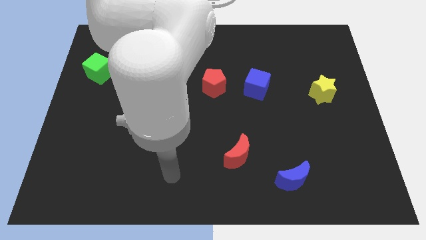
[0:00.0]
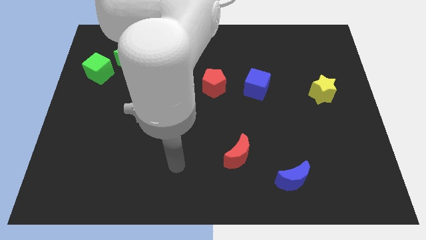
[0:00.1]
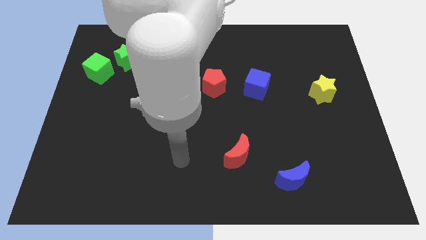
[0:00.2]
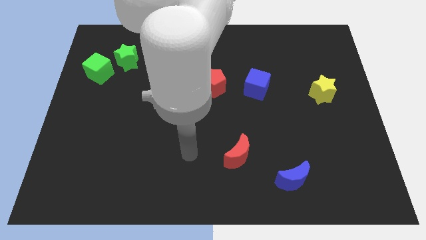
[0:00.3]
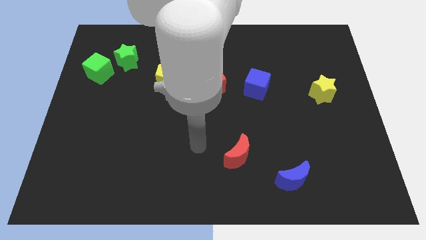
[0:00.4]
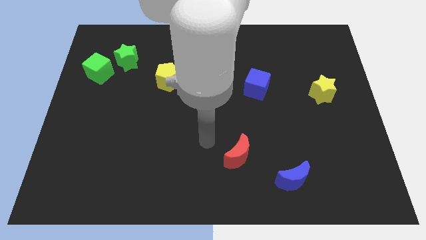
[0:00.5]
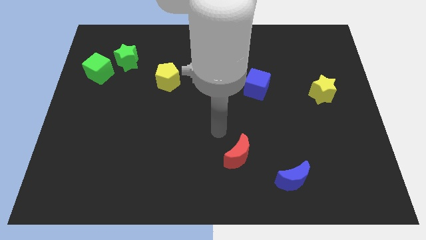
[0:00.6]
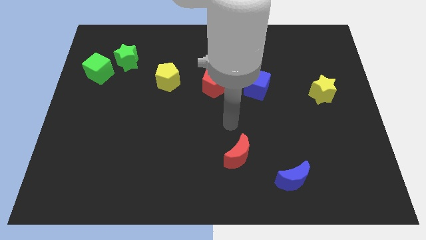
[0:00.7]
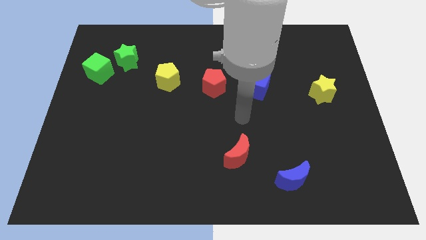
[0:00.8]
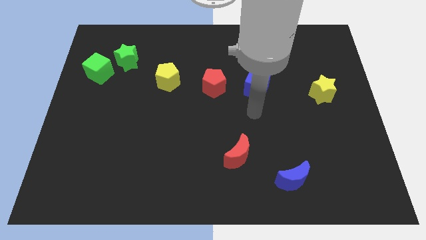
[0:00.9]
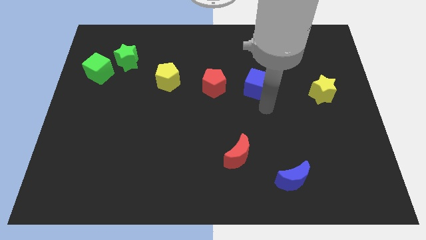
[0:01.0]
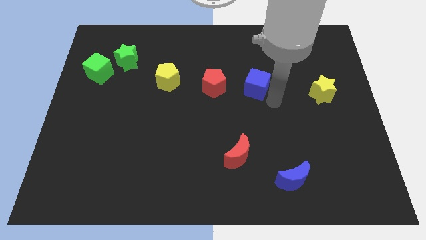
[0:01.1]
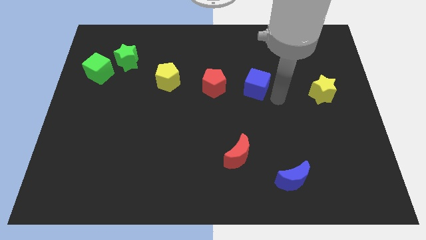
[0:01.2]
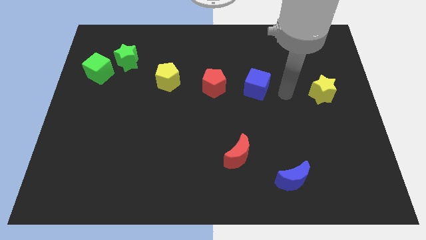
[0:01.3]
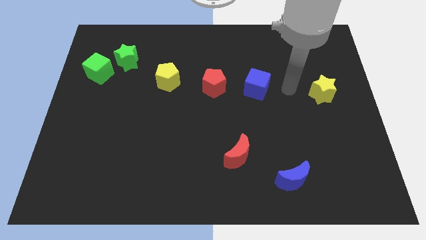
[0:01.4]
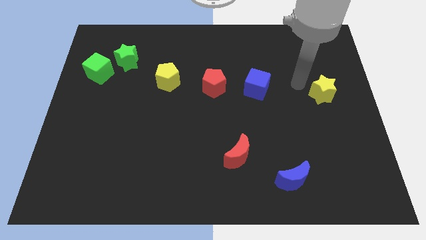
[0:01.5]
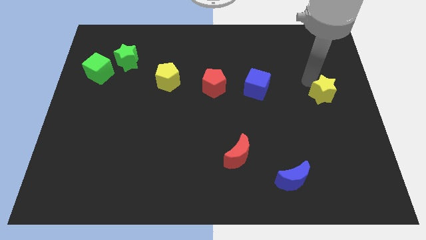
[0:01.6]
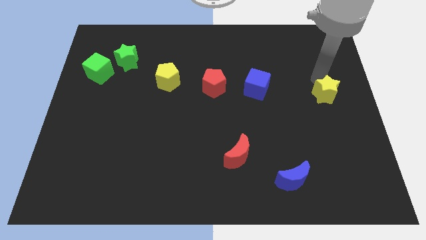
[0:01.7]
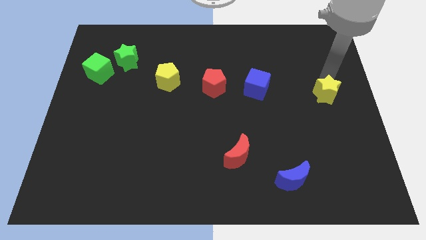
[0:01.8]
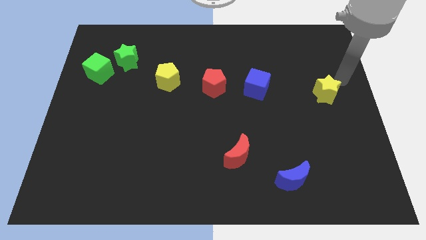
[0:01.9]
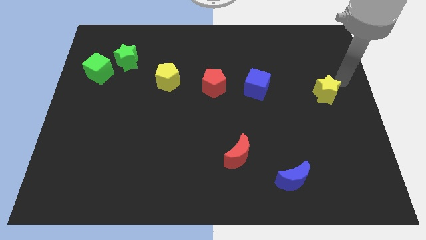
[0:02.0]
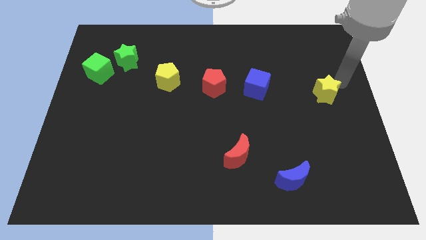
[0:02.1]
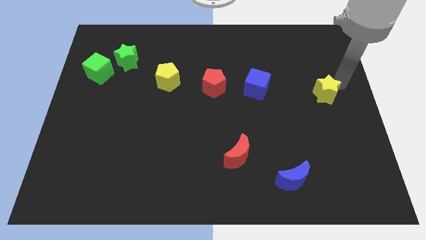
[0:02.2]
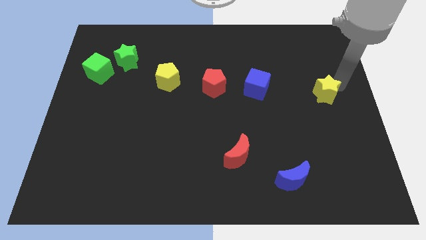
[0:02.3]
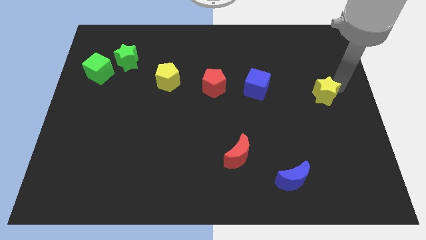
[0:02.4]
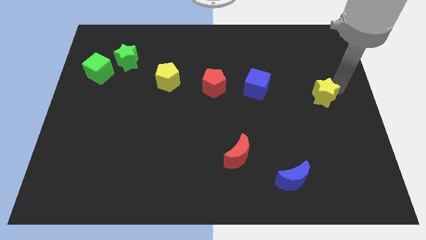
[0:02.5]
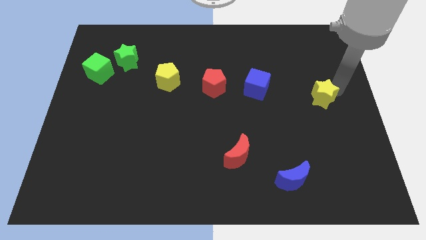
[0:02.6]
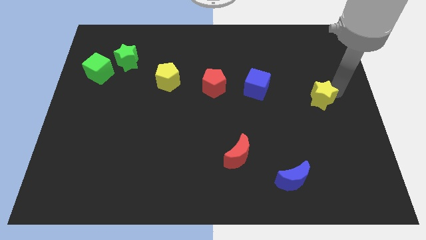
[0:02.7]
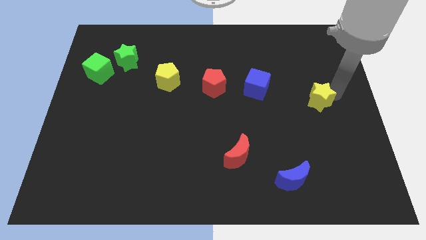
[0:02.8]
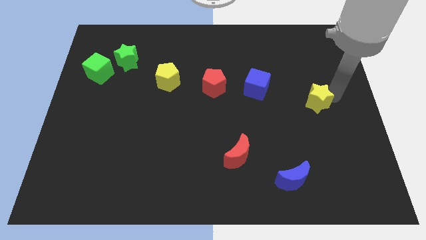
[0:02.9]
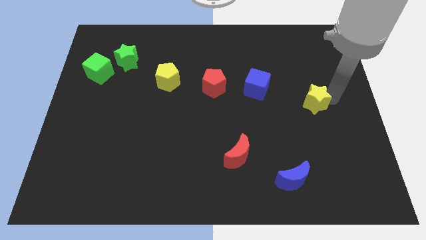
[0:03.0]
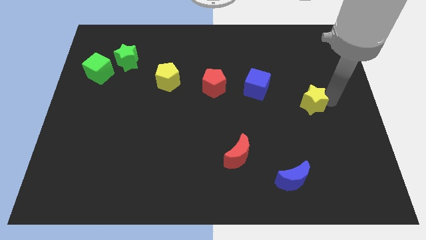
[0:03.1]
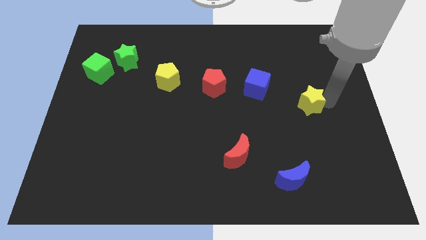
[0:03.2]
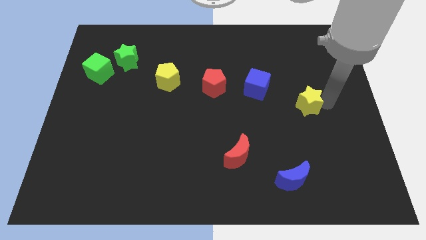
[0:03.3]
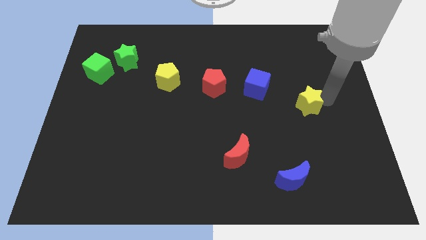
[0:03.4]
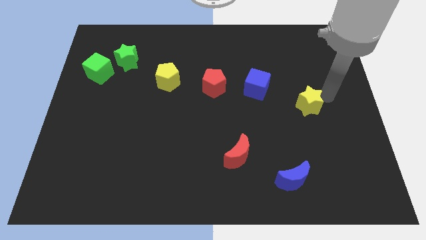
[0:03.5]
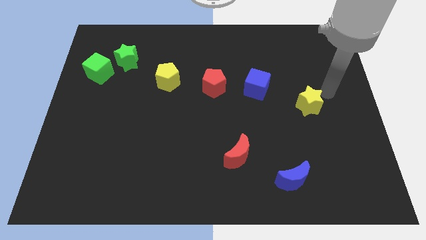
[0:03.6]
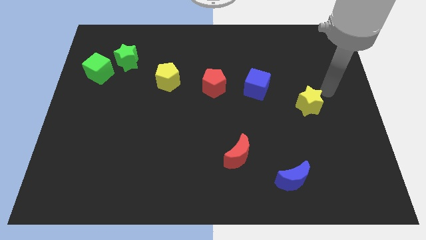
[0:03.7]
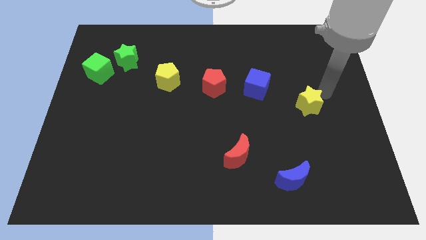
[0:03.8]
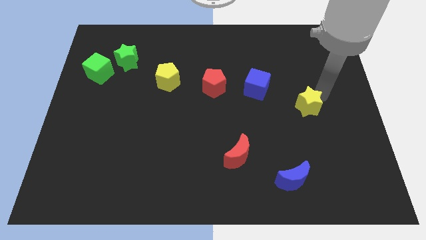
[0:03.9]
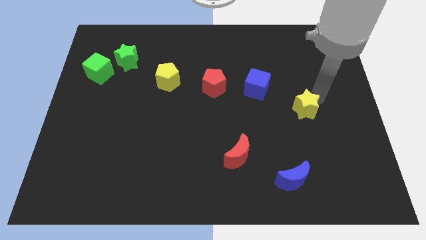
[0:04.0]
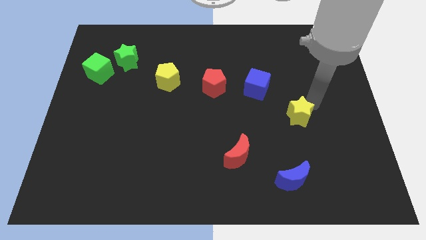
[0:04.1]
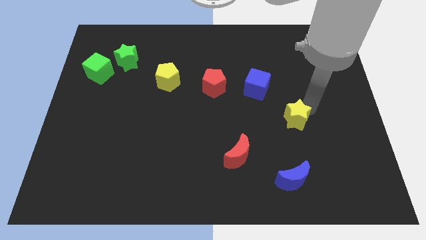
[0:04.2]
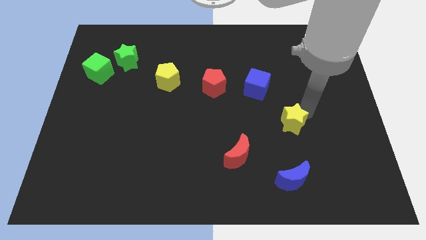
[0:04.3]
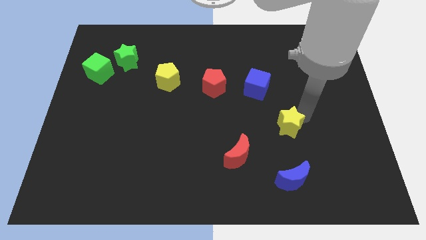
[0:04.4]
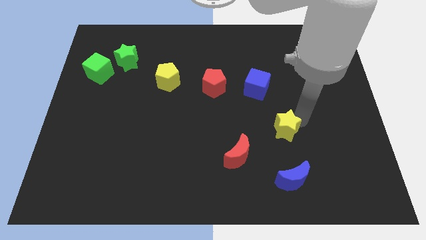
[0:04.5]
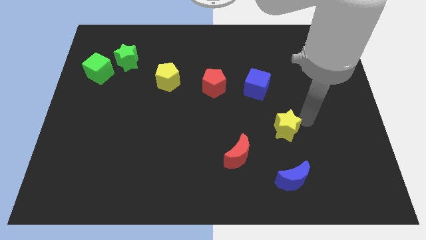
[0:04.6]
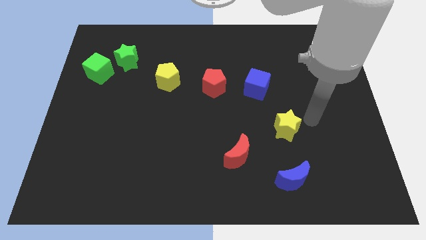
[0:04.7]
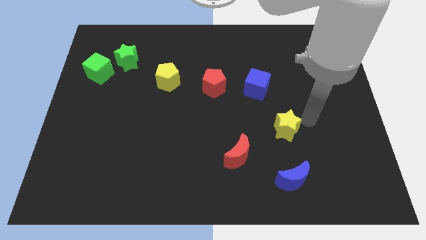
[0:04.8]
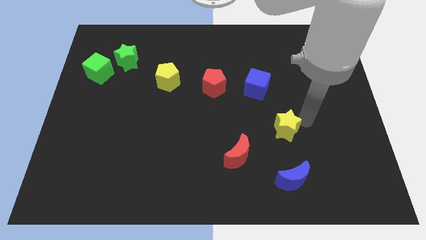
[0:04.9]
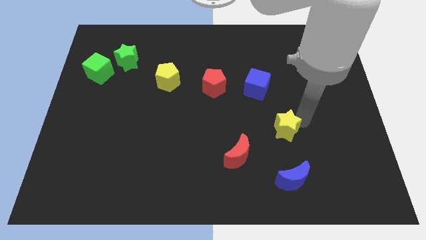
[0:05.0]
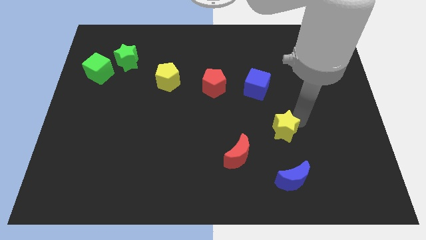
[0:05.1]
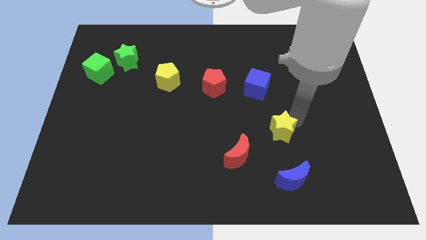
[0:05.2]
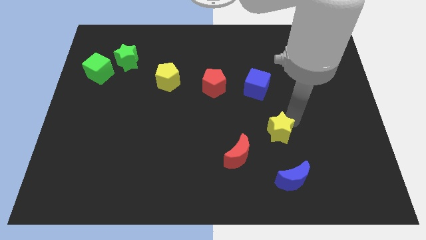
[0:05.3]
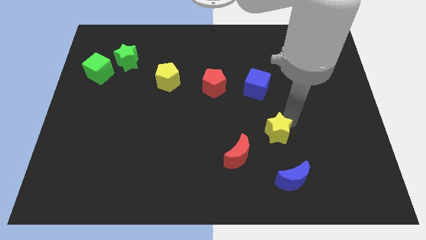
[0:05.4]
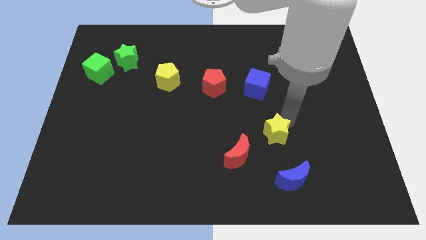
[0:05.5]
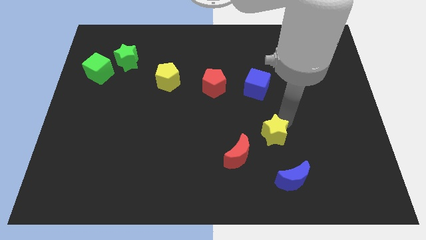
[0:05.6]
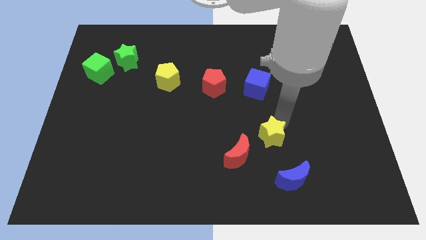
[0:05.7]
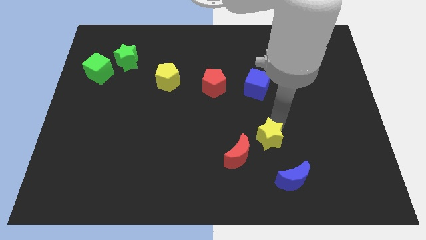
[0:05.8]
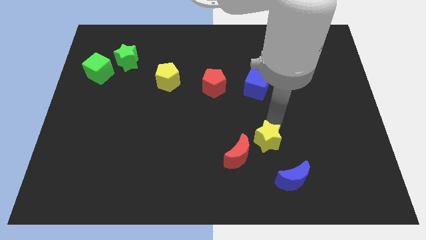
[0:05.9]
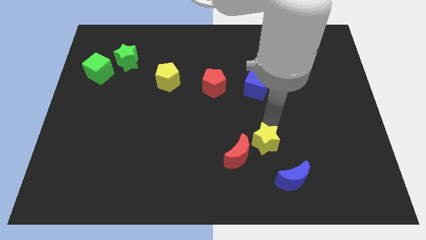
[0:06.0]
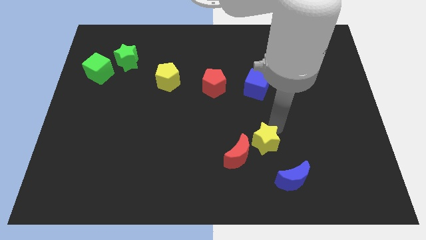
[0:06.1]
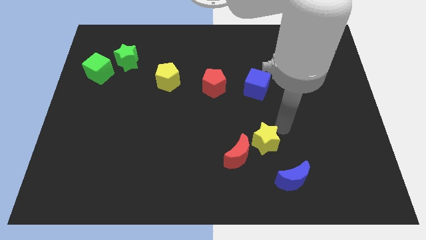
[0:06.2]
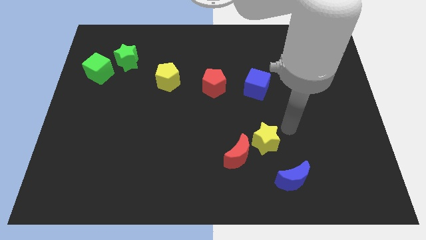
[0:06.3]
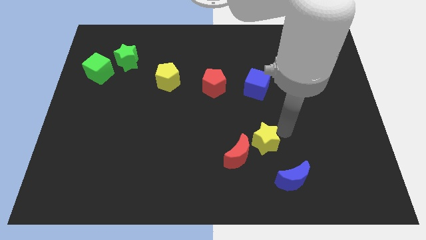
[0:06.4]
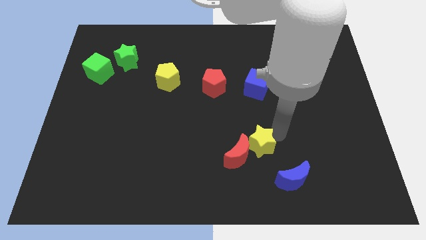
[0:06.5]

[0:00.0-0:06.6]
put the yellow star close to the red moon

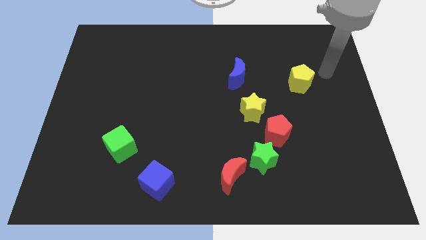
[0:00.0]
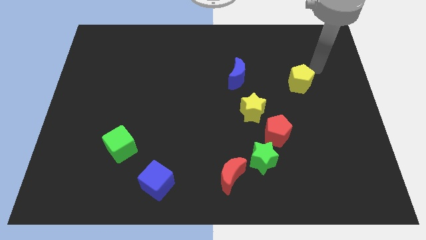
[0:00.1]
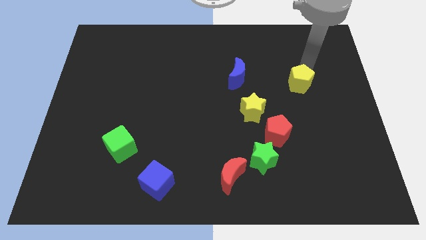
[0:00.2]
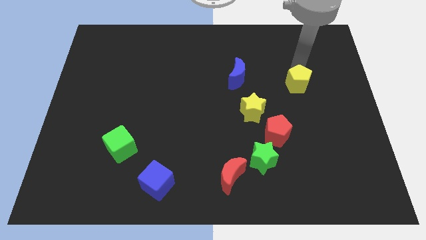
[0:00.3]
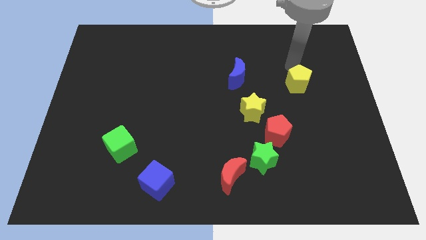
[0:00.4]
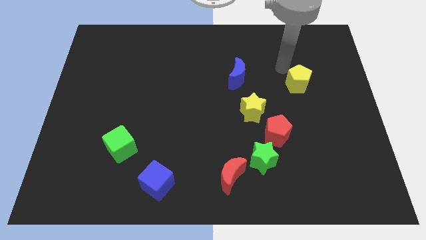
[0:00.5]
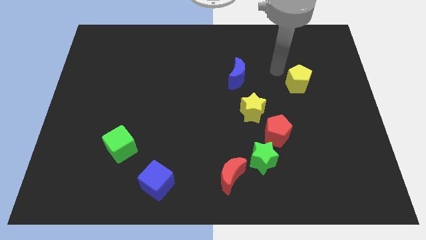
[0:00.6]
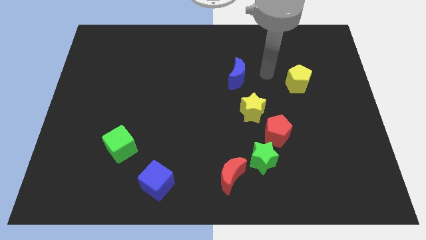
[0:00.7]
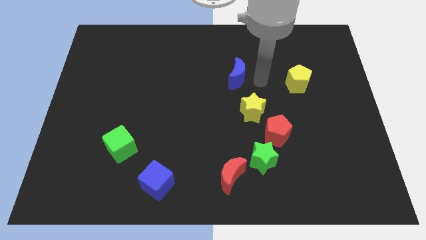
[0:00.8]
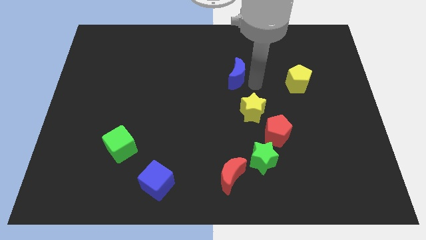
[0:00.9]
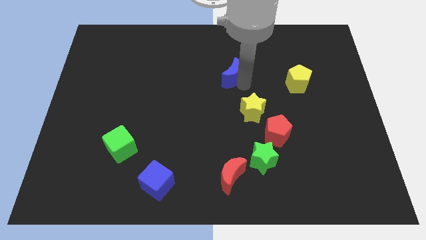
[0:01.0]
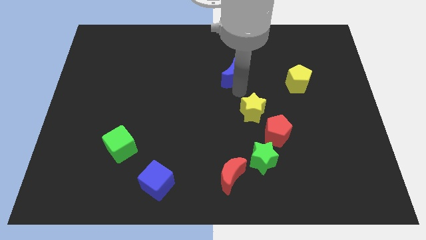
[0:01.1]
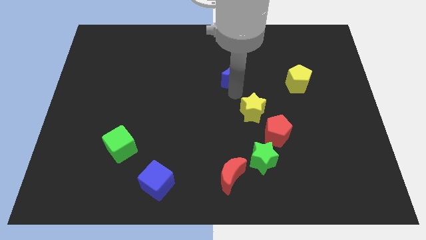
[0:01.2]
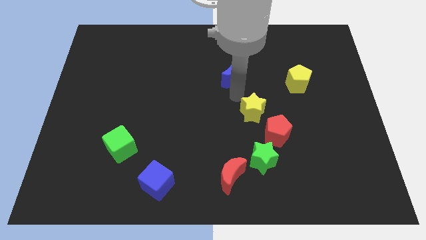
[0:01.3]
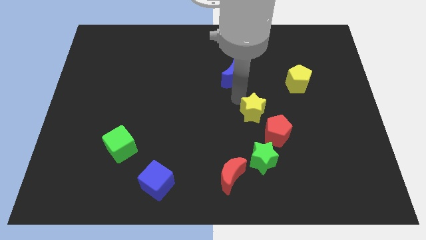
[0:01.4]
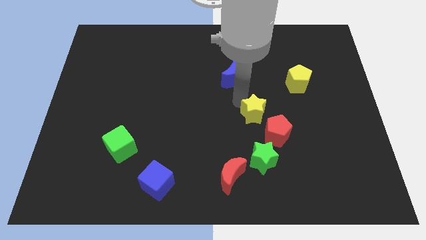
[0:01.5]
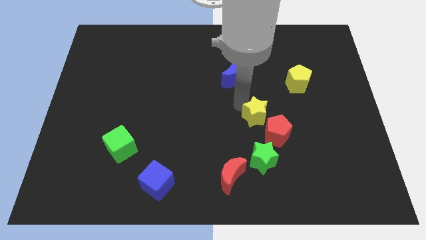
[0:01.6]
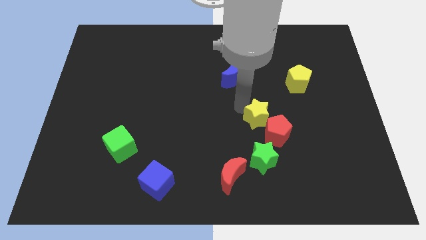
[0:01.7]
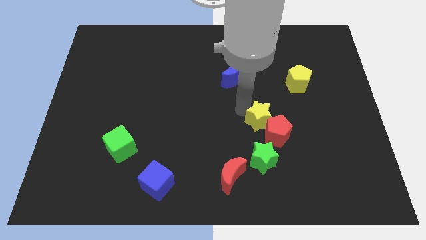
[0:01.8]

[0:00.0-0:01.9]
push the yellow star to the red pentagon

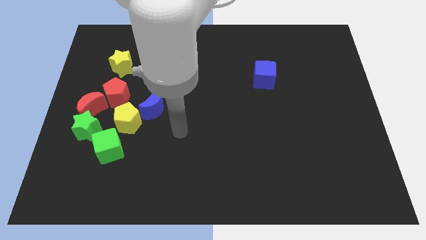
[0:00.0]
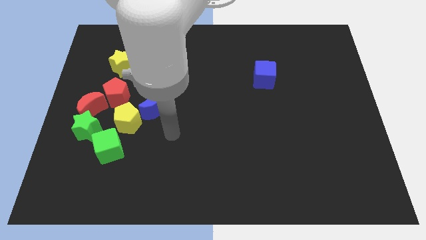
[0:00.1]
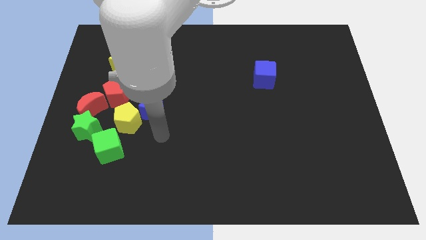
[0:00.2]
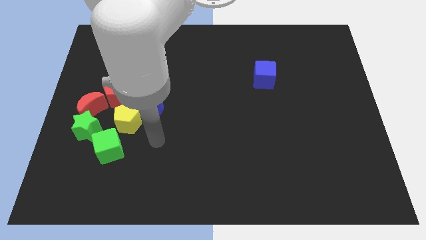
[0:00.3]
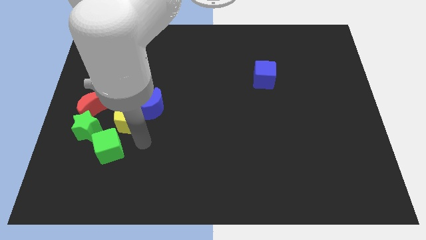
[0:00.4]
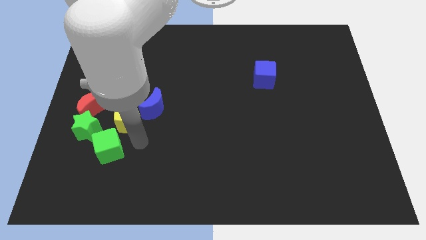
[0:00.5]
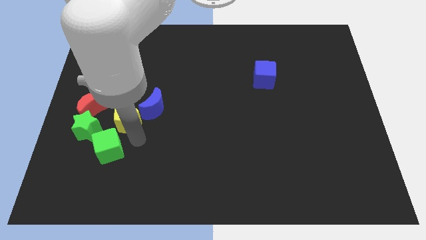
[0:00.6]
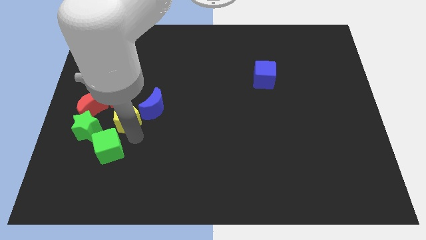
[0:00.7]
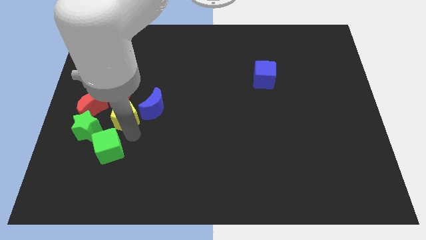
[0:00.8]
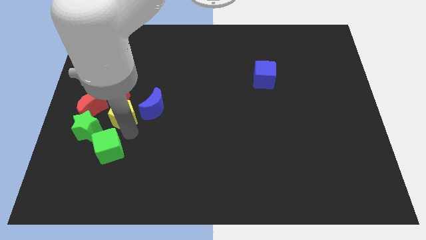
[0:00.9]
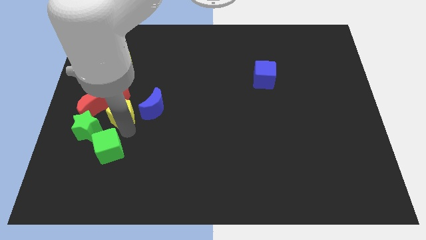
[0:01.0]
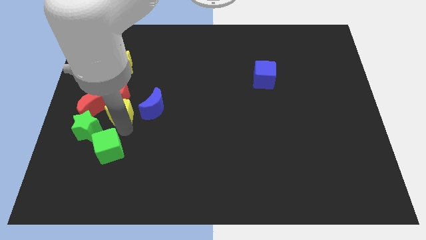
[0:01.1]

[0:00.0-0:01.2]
slide the yellow pentagon to the red pentagon
